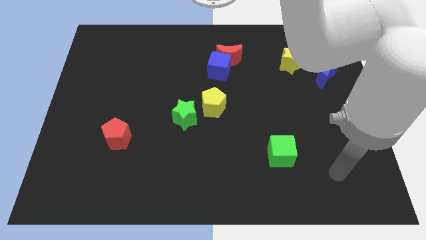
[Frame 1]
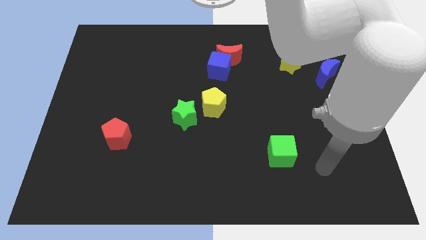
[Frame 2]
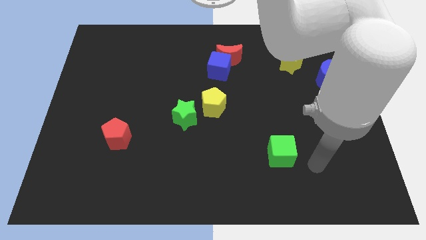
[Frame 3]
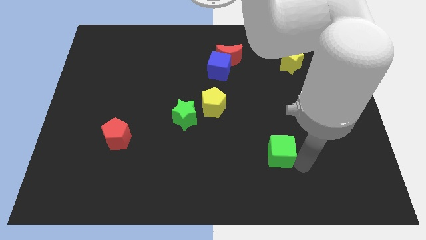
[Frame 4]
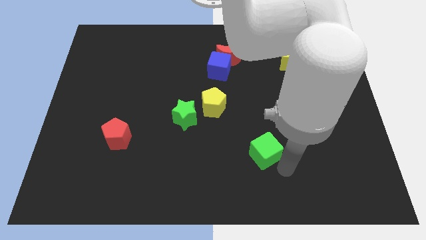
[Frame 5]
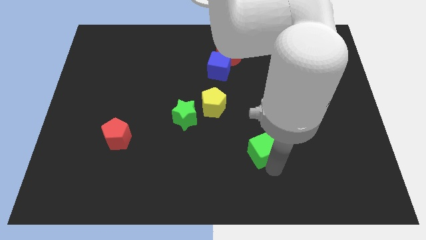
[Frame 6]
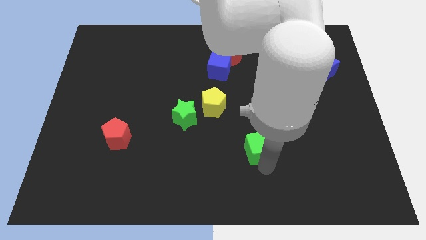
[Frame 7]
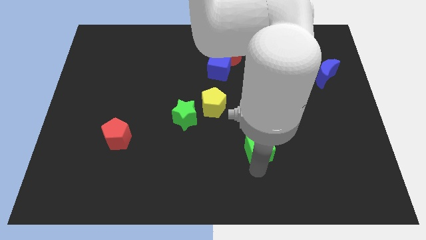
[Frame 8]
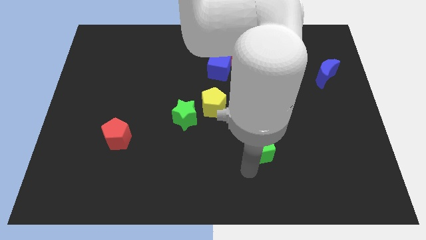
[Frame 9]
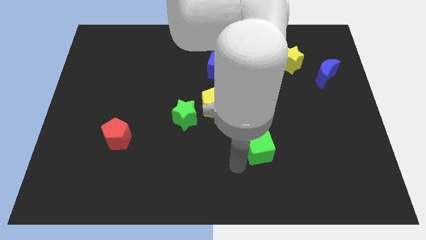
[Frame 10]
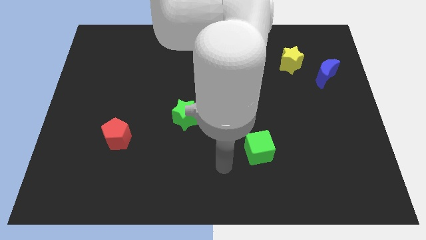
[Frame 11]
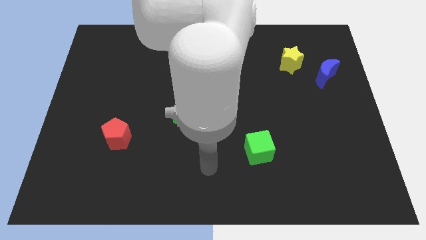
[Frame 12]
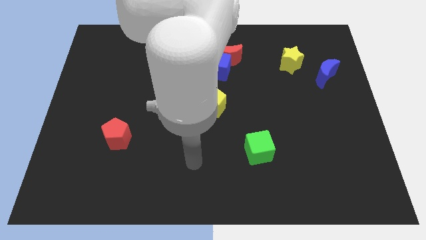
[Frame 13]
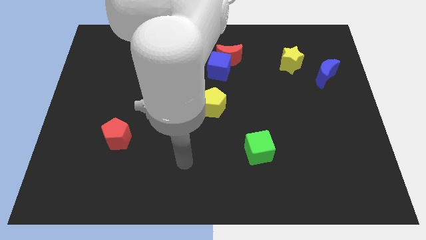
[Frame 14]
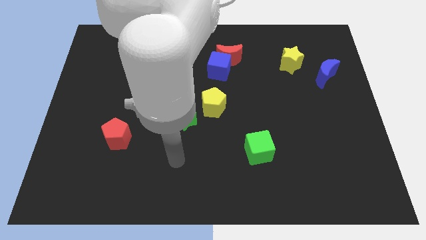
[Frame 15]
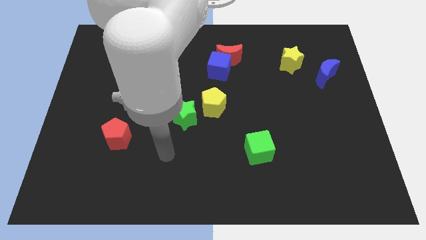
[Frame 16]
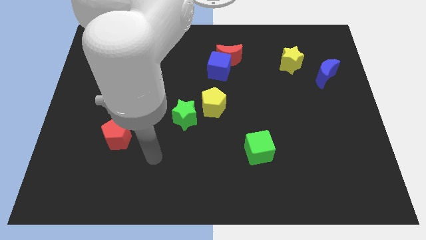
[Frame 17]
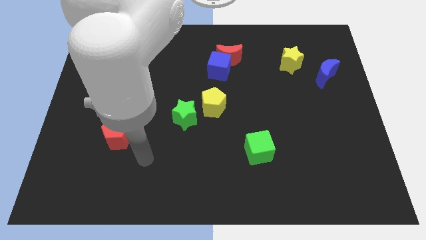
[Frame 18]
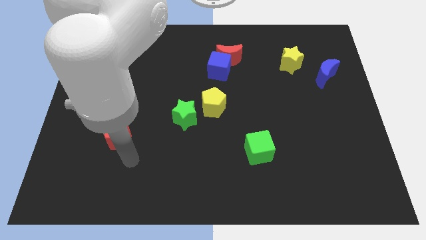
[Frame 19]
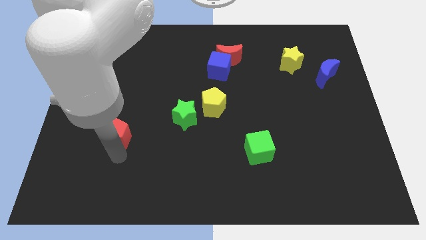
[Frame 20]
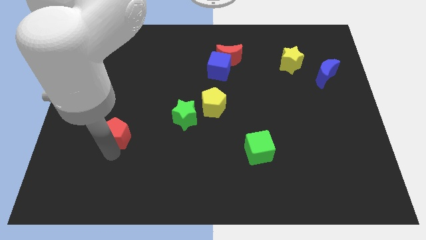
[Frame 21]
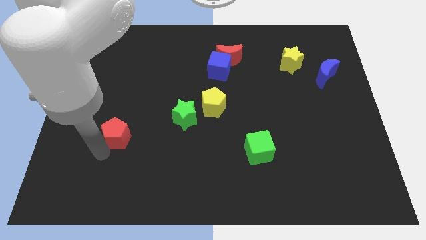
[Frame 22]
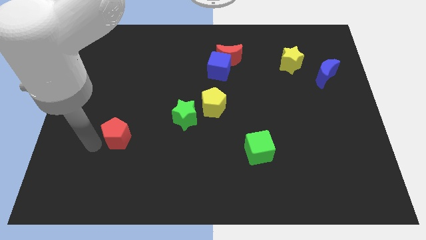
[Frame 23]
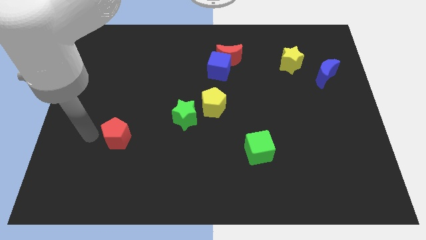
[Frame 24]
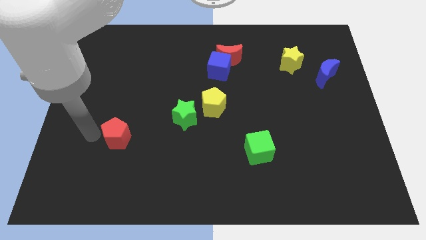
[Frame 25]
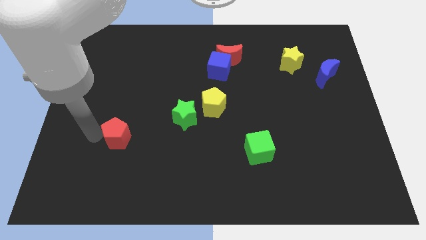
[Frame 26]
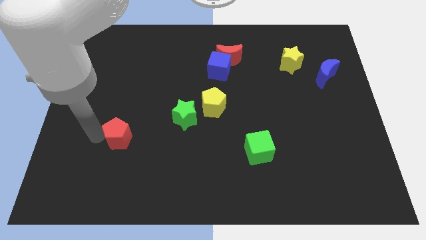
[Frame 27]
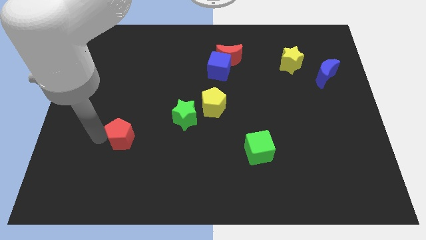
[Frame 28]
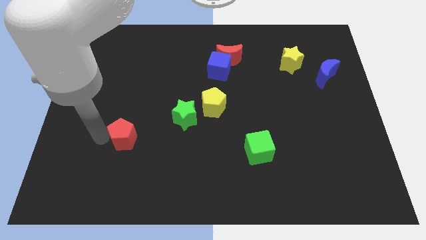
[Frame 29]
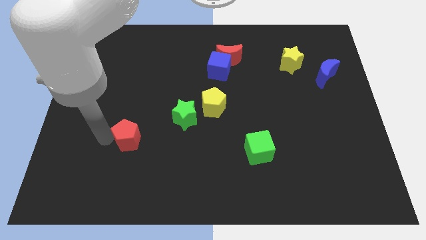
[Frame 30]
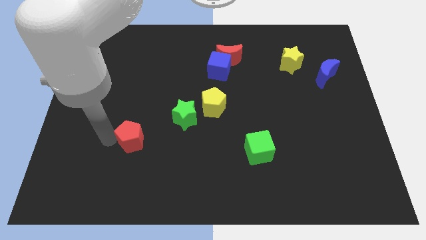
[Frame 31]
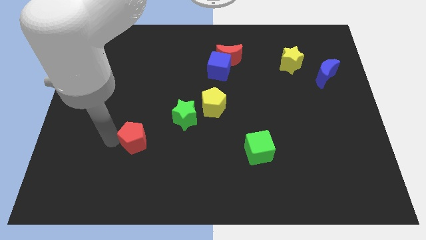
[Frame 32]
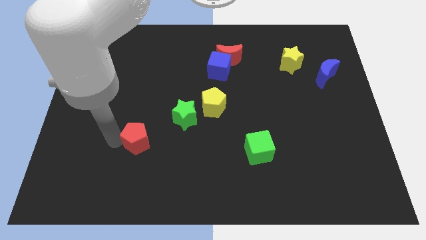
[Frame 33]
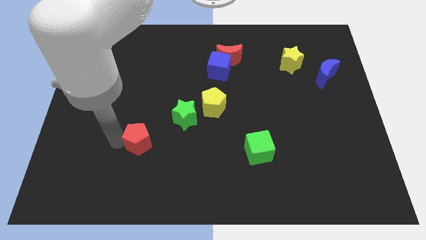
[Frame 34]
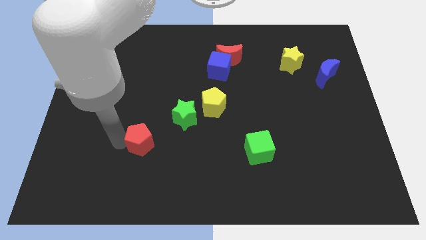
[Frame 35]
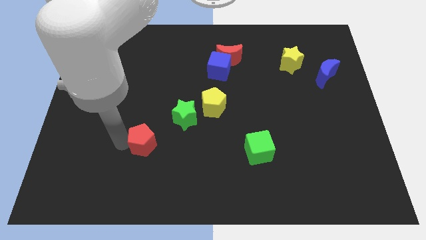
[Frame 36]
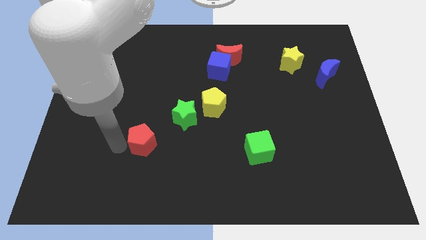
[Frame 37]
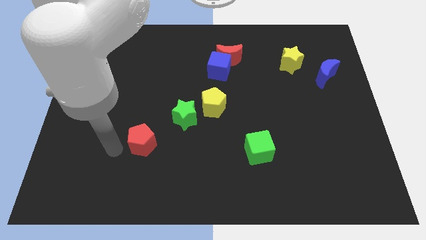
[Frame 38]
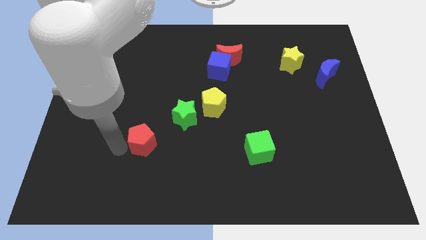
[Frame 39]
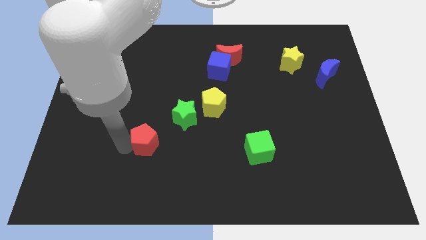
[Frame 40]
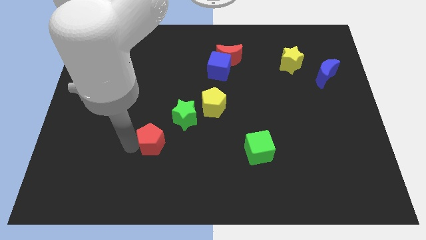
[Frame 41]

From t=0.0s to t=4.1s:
slightly move the red pentagon to the right

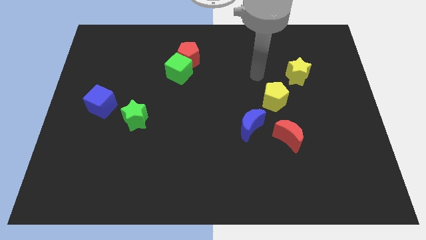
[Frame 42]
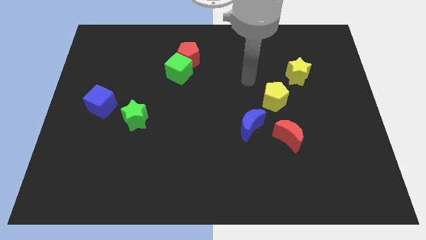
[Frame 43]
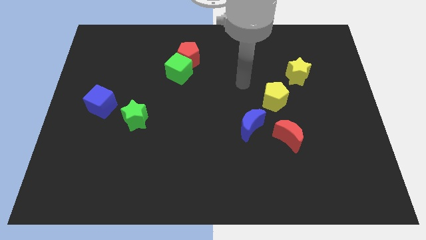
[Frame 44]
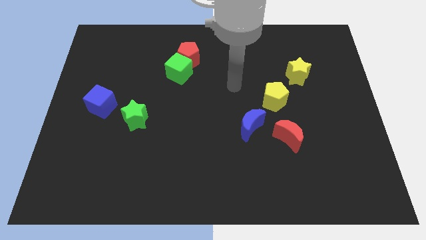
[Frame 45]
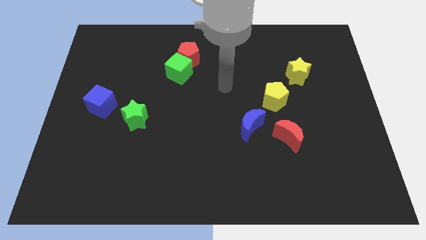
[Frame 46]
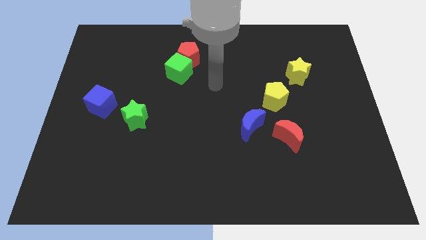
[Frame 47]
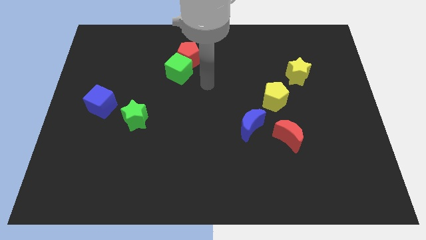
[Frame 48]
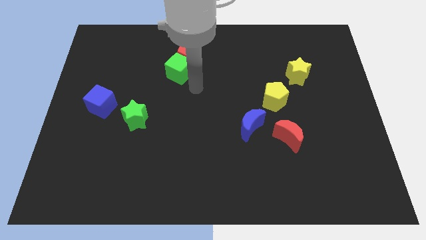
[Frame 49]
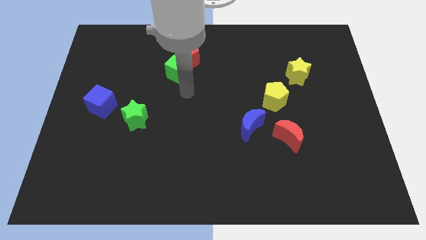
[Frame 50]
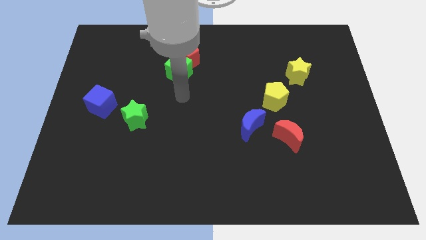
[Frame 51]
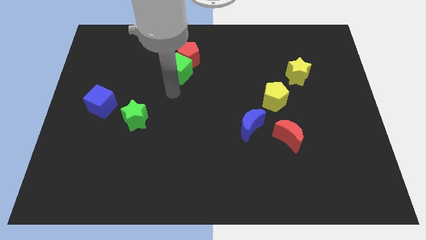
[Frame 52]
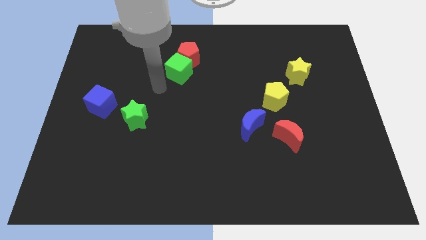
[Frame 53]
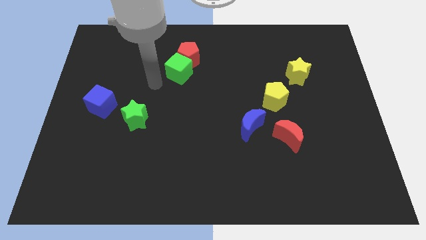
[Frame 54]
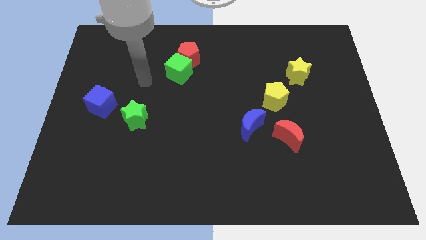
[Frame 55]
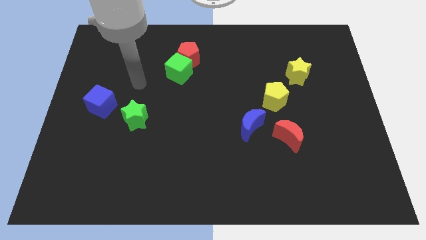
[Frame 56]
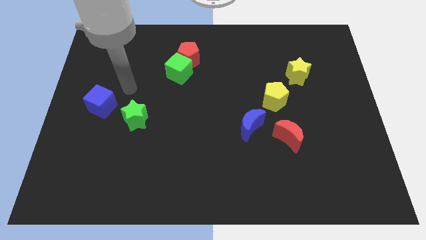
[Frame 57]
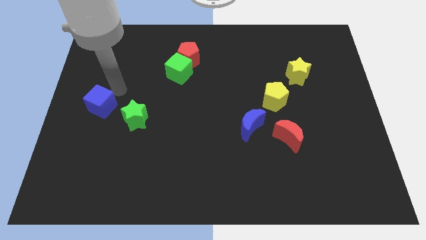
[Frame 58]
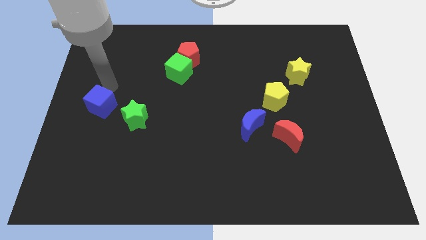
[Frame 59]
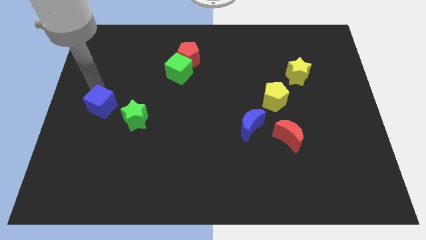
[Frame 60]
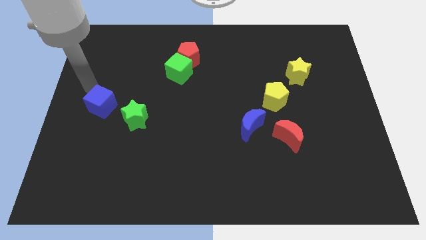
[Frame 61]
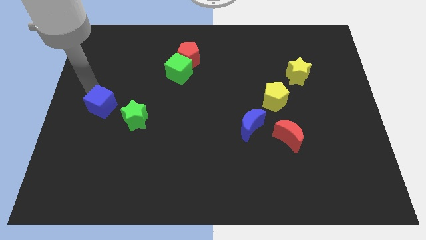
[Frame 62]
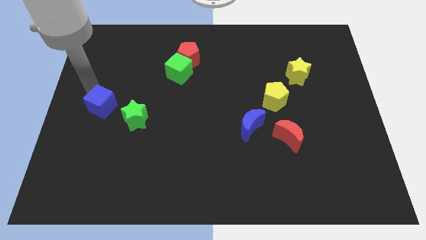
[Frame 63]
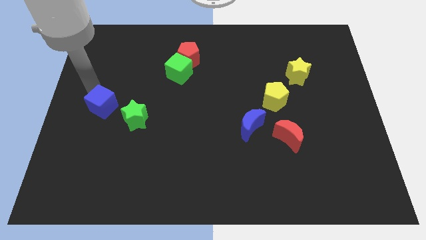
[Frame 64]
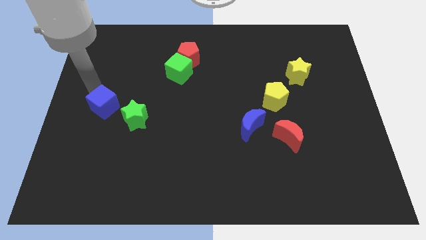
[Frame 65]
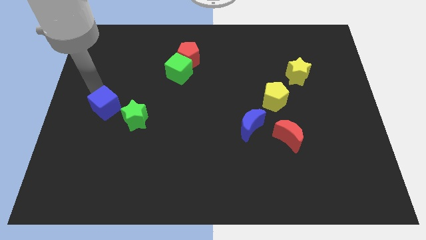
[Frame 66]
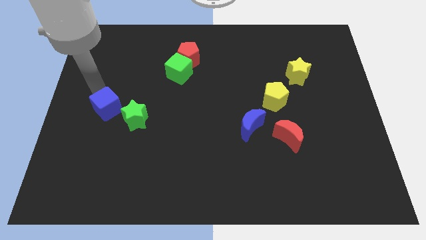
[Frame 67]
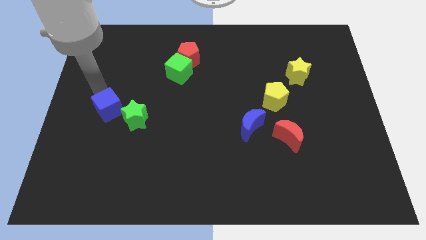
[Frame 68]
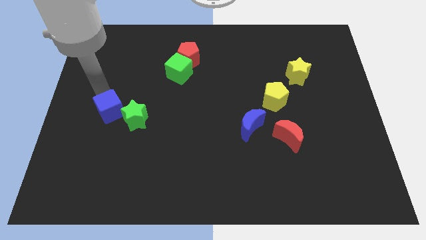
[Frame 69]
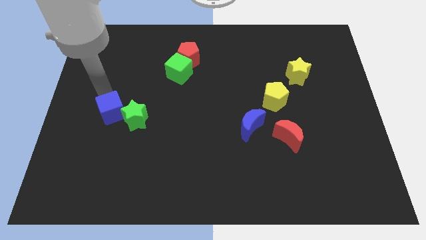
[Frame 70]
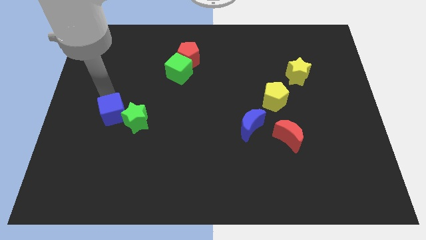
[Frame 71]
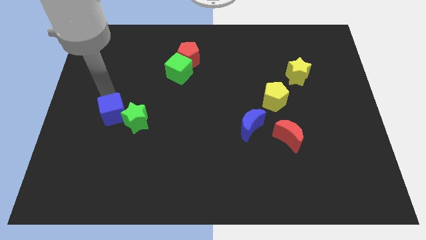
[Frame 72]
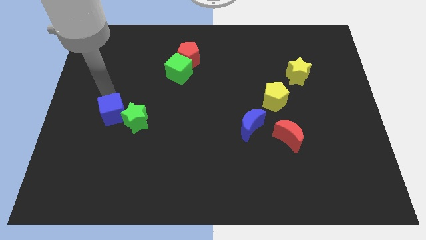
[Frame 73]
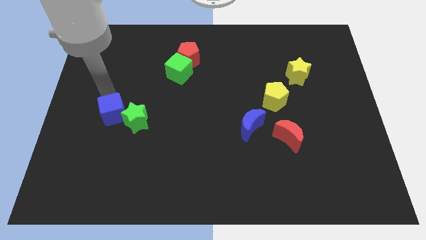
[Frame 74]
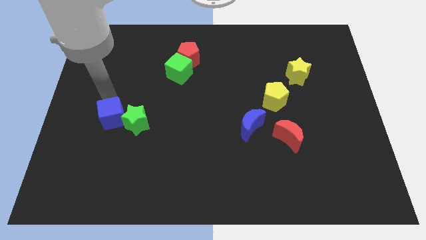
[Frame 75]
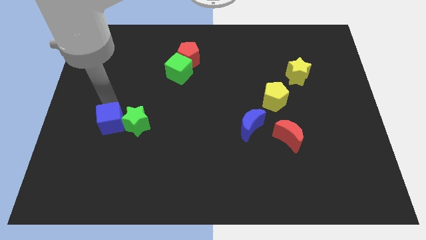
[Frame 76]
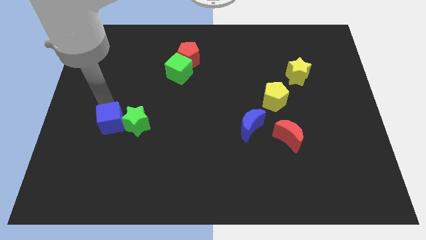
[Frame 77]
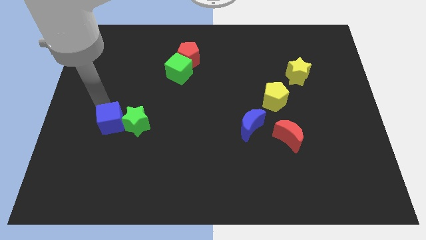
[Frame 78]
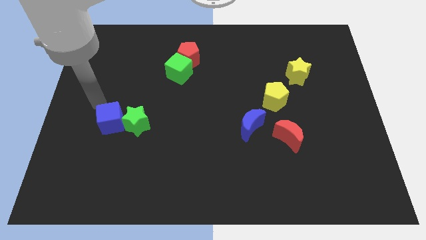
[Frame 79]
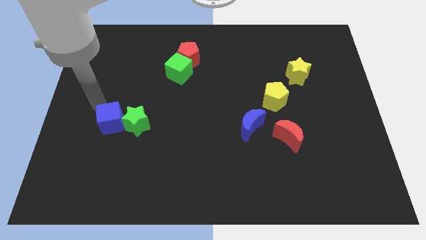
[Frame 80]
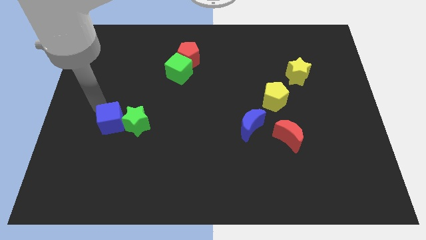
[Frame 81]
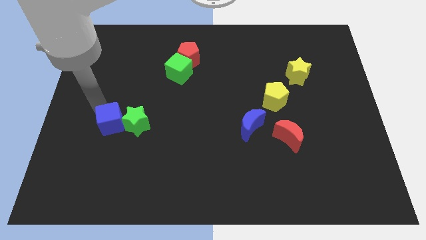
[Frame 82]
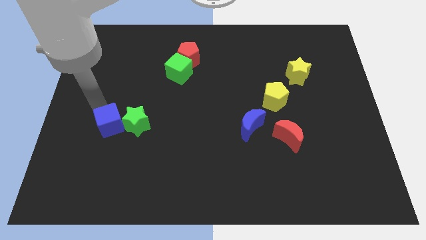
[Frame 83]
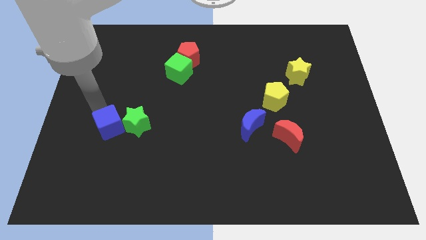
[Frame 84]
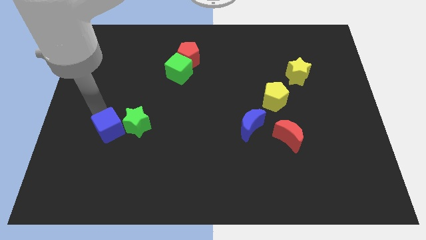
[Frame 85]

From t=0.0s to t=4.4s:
slightly slide the blue cube downwards and then to the right
